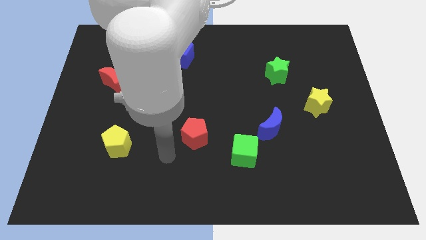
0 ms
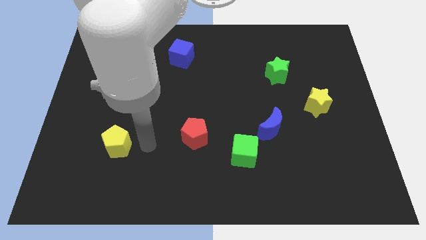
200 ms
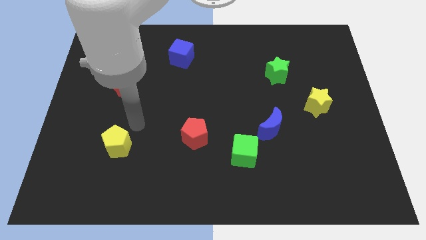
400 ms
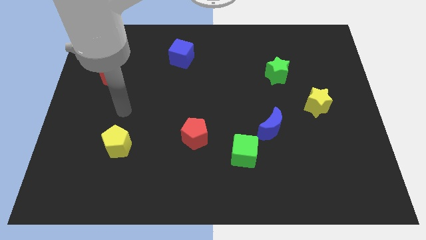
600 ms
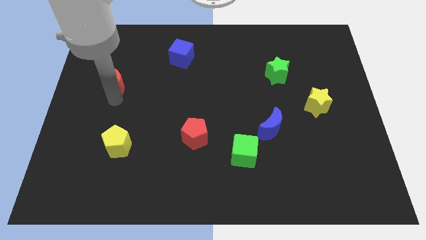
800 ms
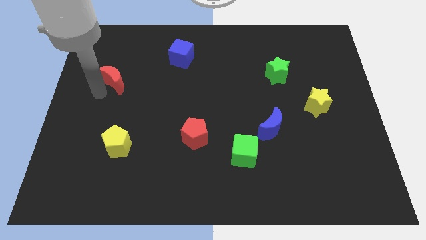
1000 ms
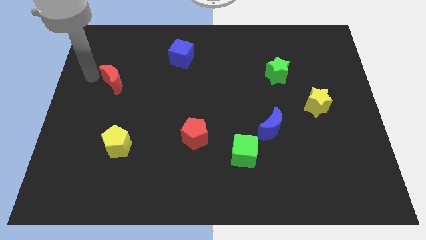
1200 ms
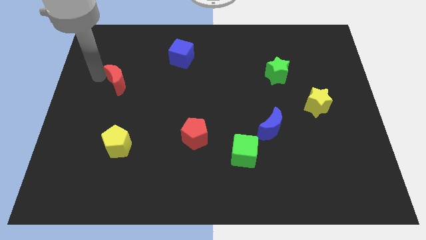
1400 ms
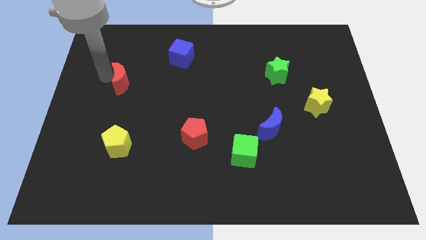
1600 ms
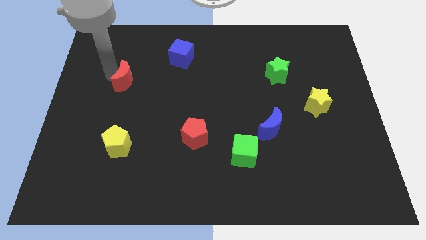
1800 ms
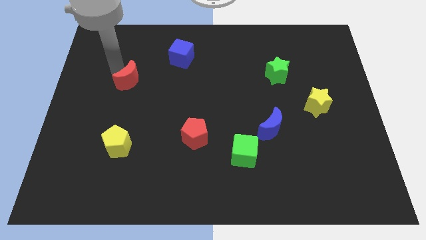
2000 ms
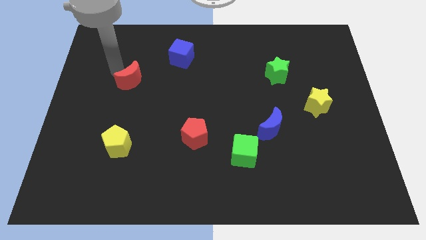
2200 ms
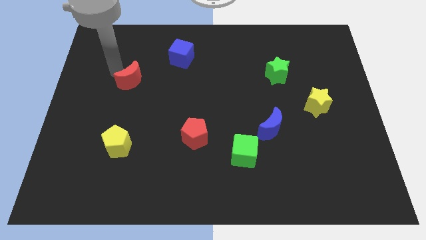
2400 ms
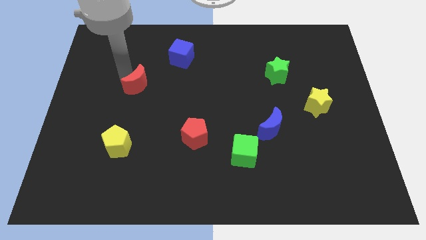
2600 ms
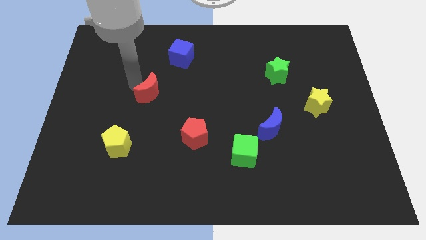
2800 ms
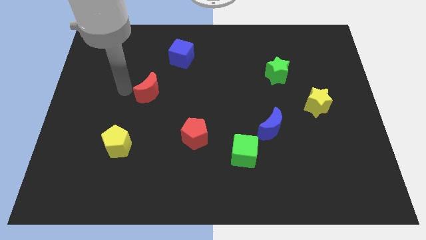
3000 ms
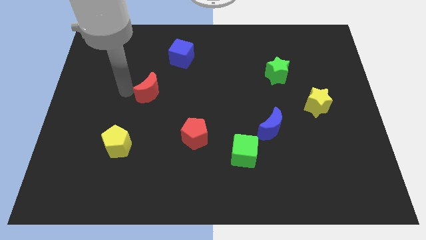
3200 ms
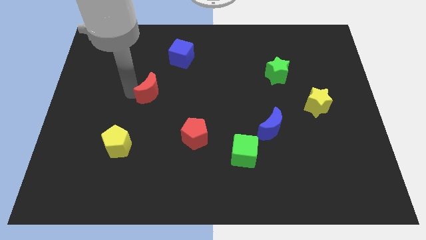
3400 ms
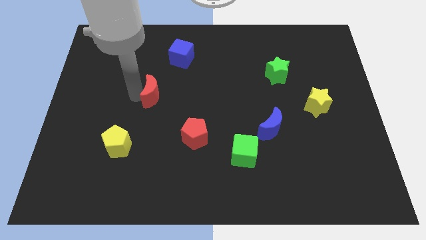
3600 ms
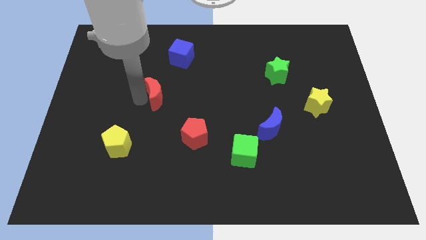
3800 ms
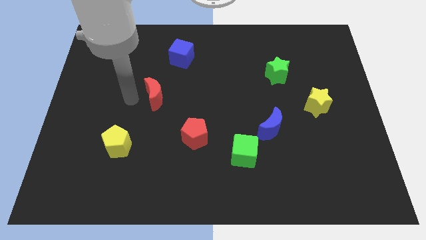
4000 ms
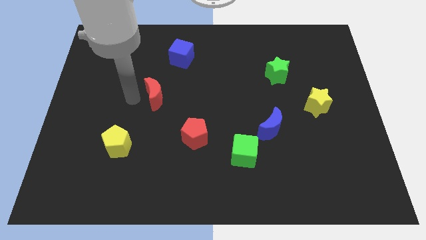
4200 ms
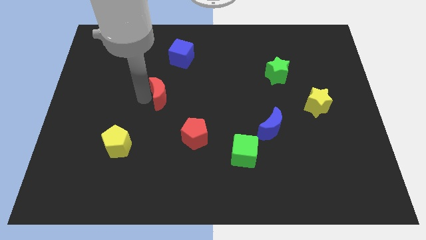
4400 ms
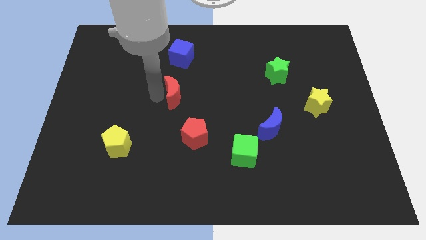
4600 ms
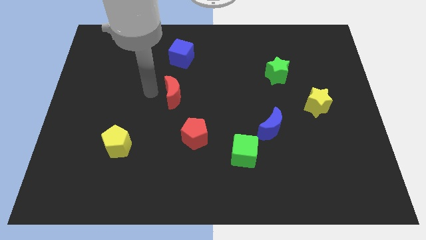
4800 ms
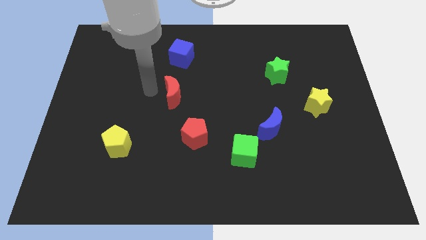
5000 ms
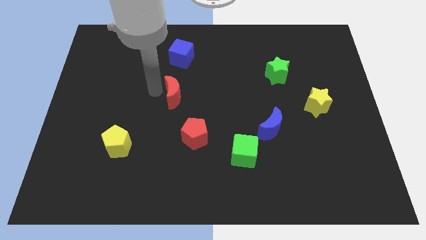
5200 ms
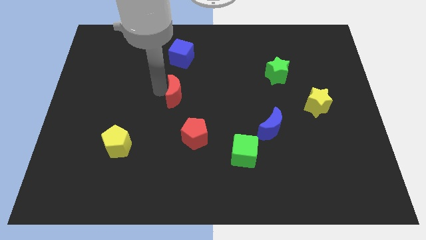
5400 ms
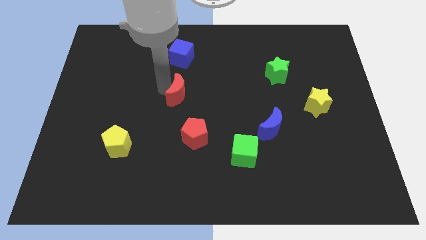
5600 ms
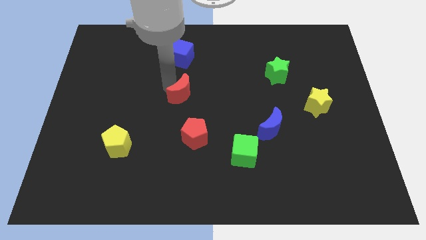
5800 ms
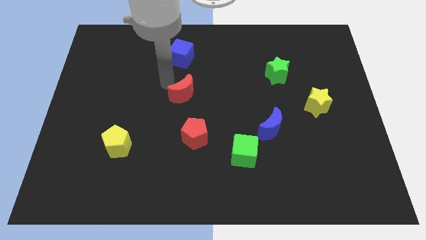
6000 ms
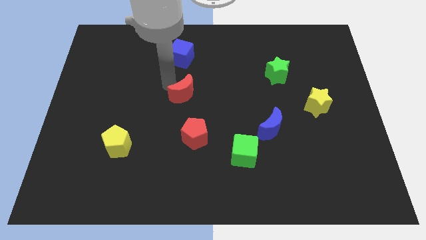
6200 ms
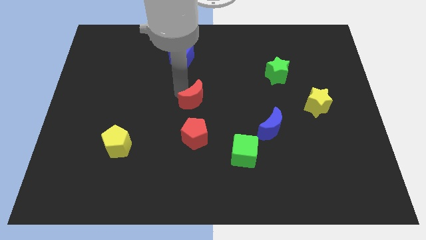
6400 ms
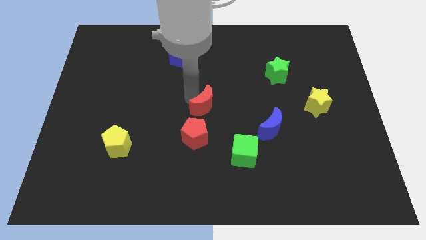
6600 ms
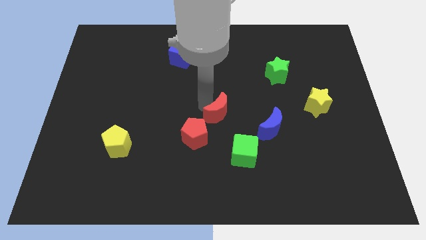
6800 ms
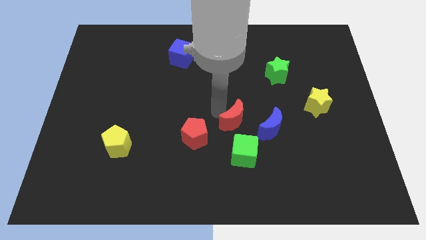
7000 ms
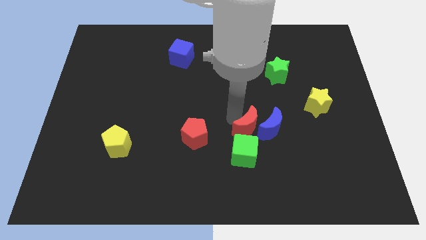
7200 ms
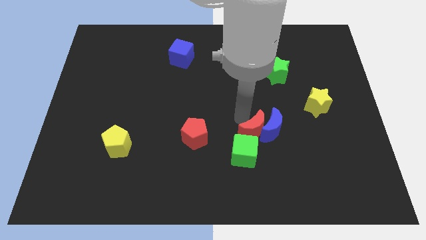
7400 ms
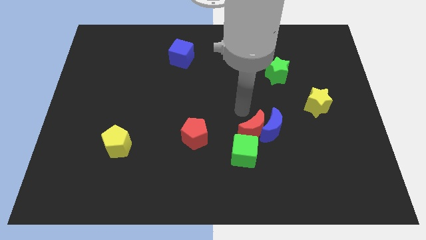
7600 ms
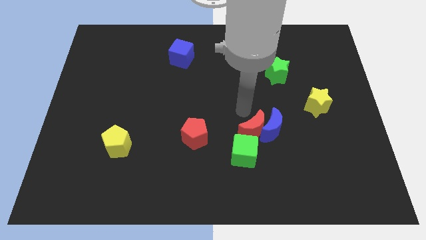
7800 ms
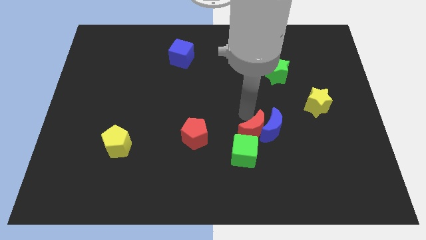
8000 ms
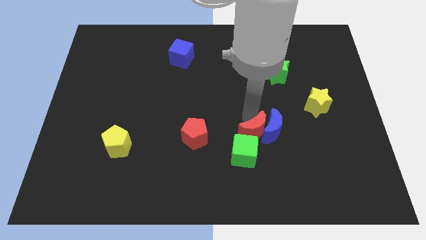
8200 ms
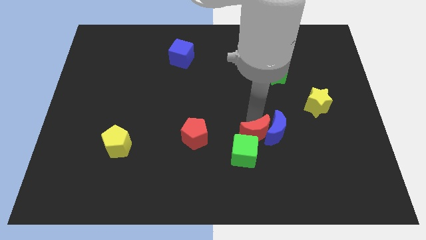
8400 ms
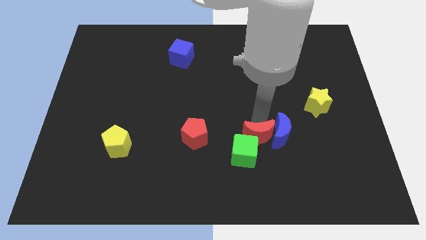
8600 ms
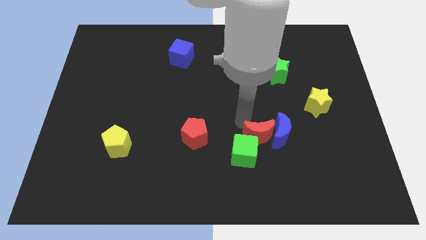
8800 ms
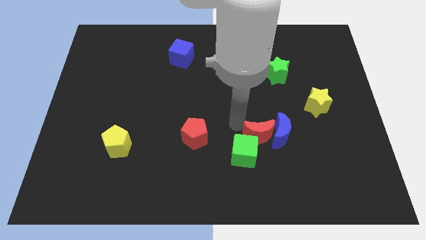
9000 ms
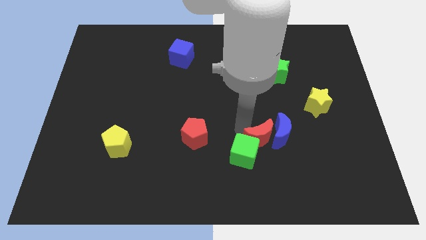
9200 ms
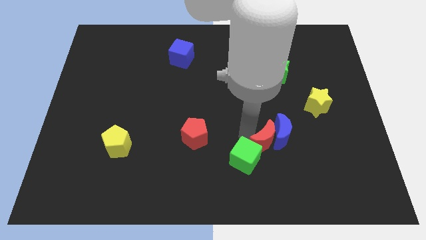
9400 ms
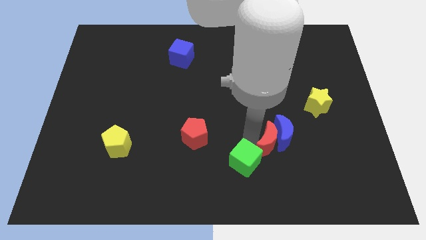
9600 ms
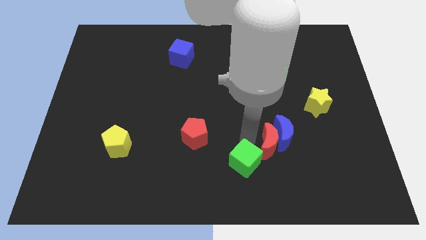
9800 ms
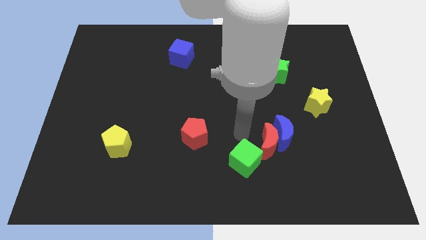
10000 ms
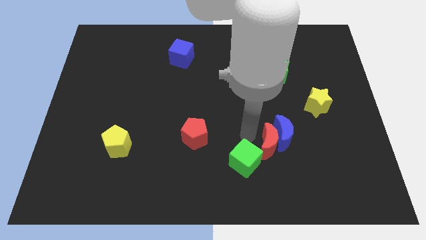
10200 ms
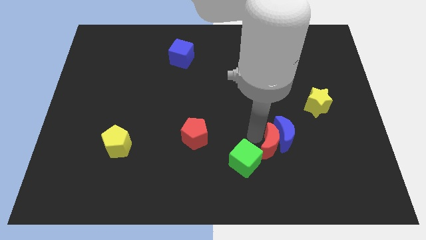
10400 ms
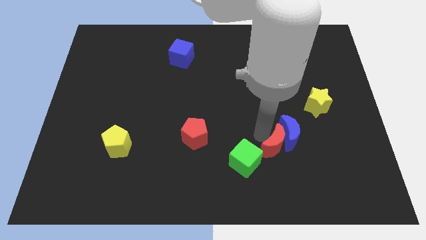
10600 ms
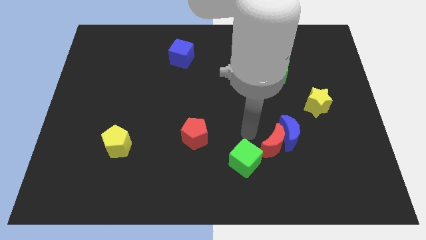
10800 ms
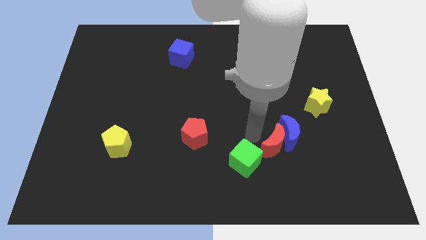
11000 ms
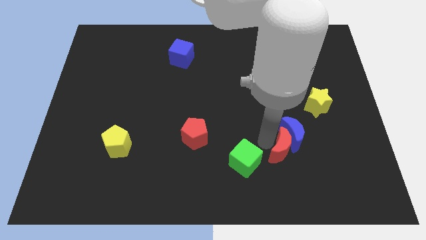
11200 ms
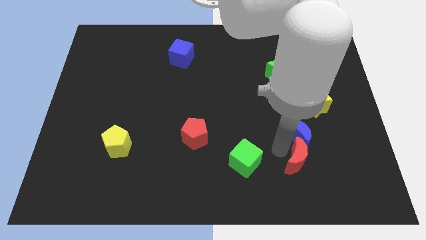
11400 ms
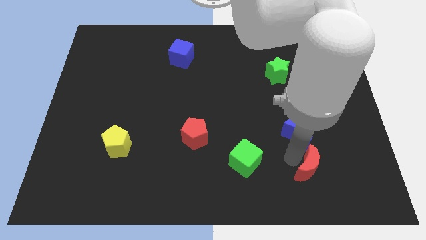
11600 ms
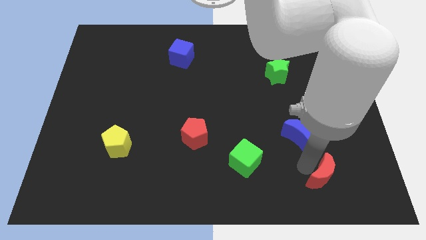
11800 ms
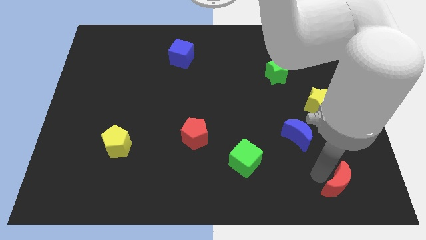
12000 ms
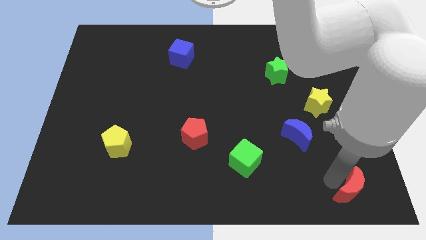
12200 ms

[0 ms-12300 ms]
slide the red moon to the lower right corner
